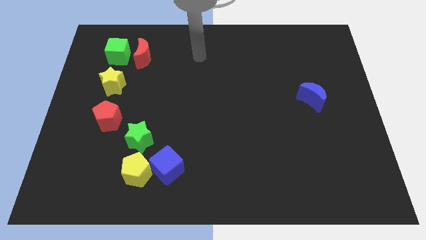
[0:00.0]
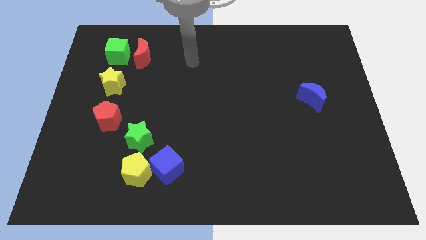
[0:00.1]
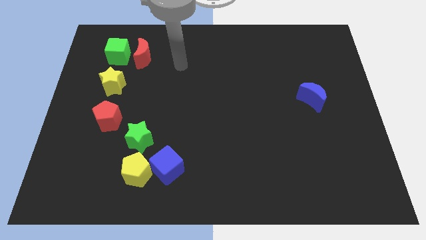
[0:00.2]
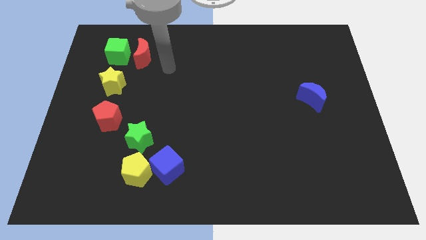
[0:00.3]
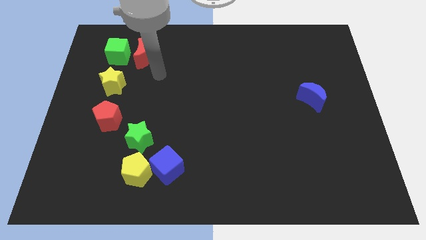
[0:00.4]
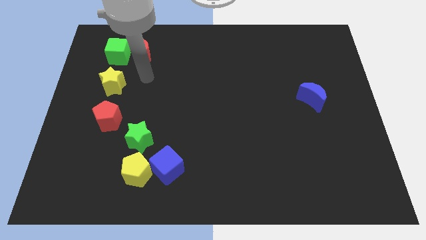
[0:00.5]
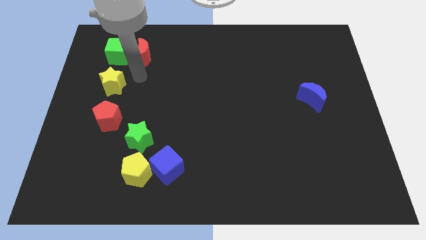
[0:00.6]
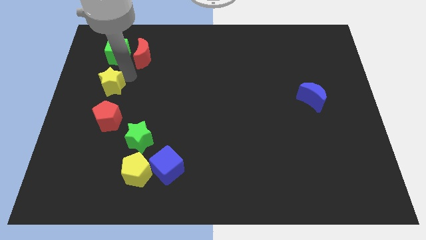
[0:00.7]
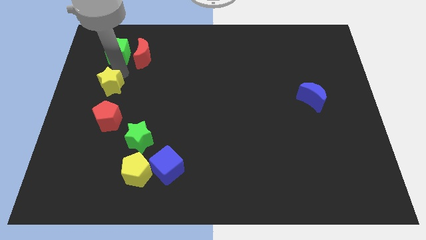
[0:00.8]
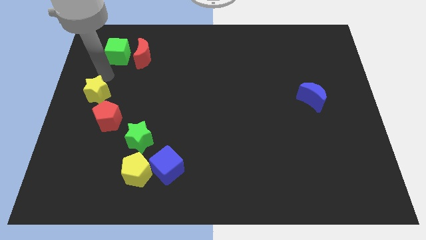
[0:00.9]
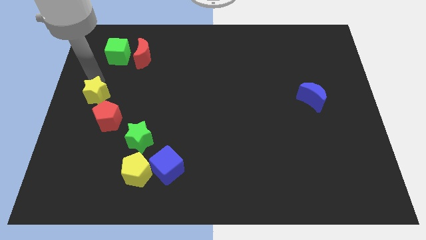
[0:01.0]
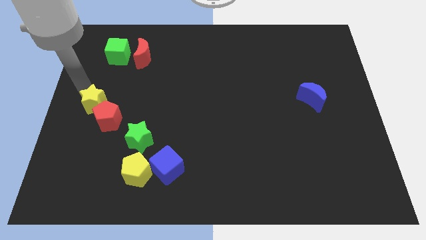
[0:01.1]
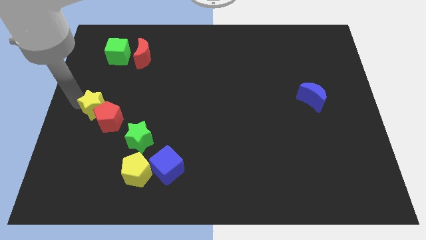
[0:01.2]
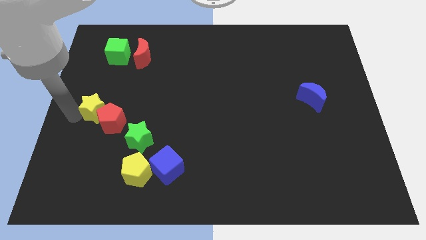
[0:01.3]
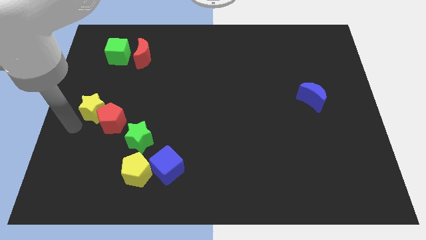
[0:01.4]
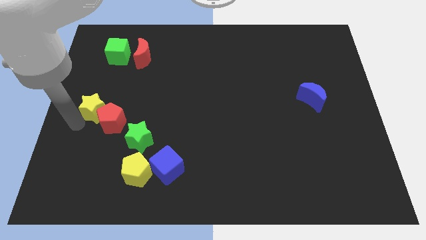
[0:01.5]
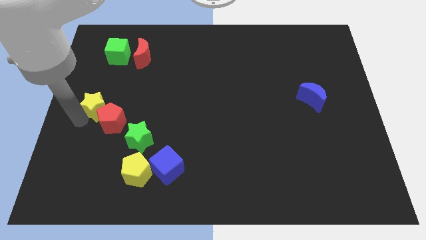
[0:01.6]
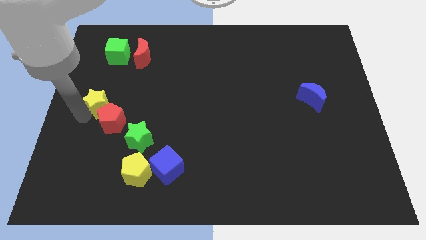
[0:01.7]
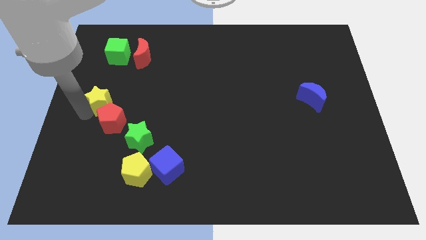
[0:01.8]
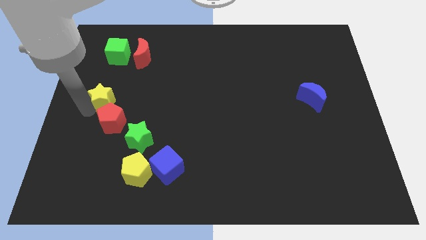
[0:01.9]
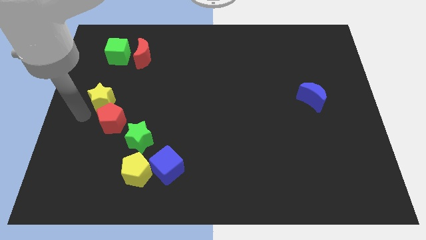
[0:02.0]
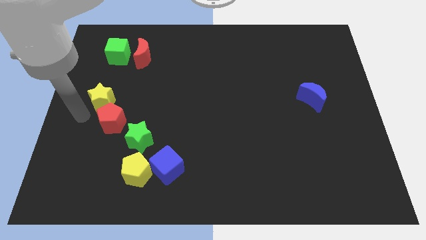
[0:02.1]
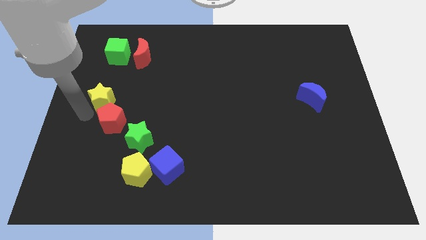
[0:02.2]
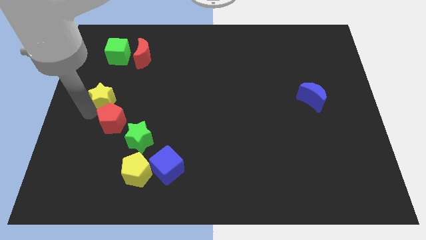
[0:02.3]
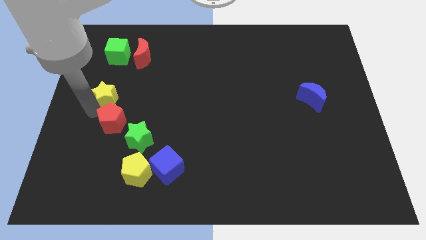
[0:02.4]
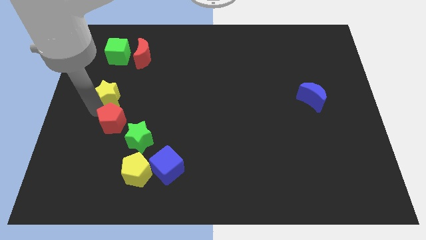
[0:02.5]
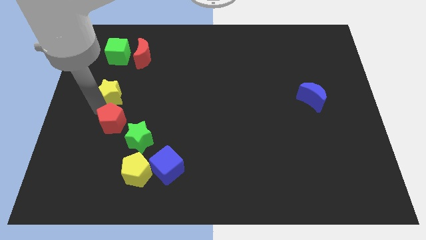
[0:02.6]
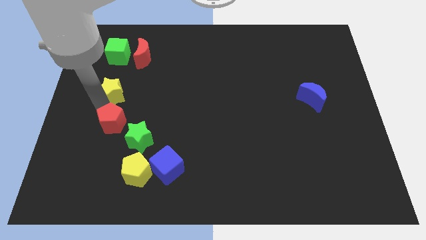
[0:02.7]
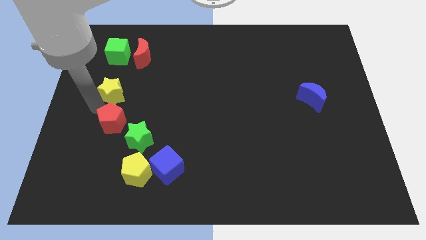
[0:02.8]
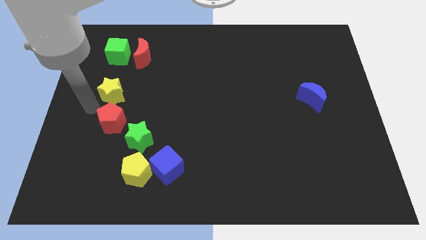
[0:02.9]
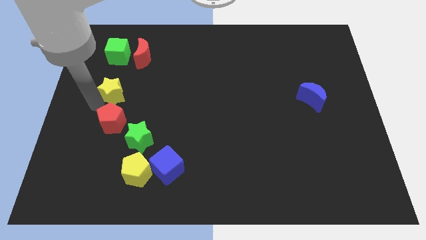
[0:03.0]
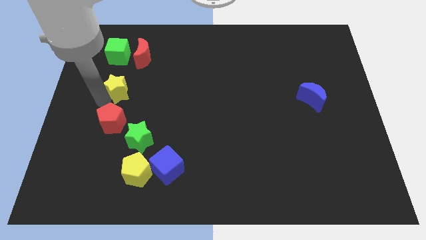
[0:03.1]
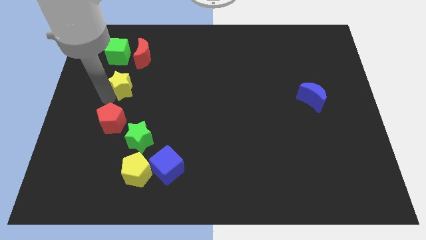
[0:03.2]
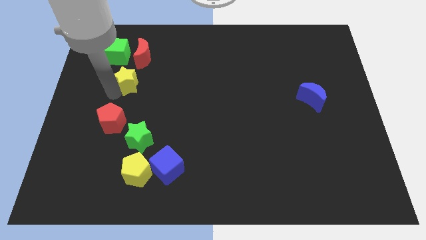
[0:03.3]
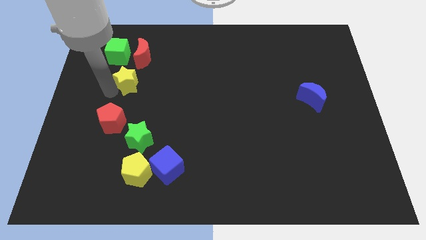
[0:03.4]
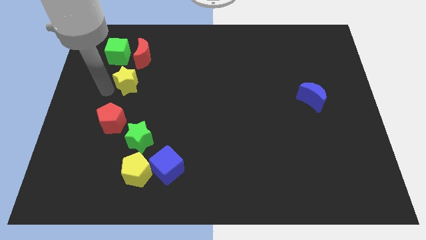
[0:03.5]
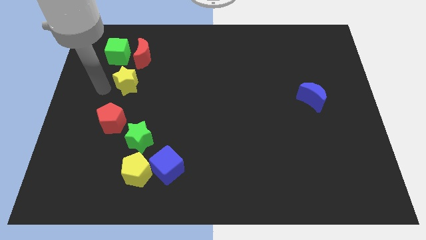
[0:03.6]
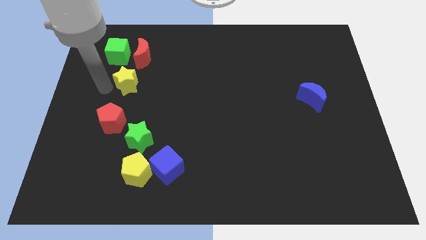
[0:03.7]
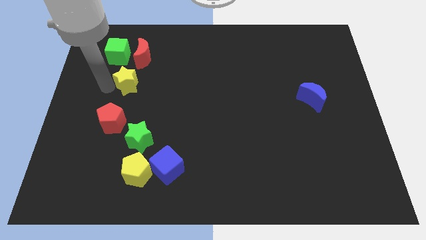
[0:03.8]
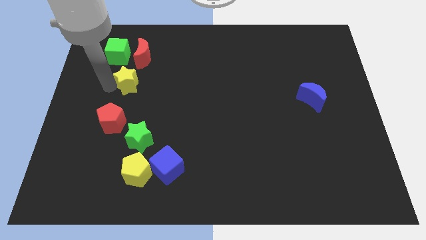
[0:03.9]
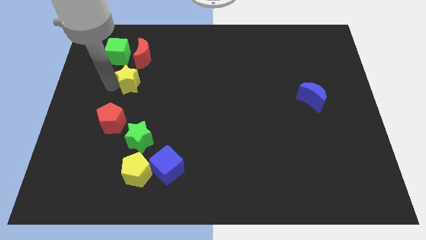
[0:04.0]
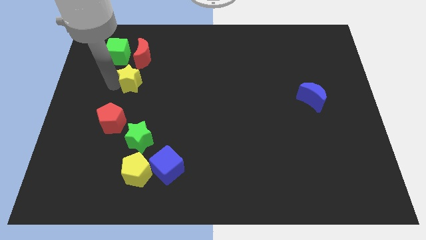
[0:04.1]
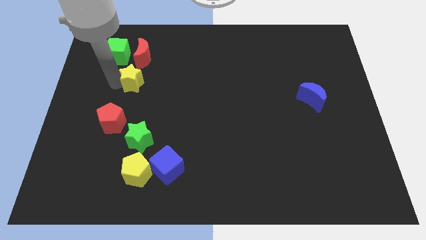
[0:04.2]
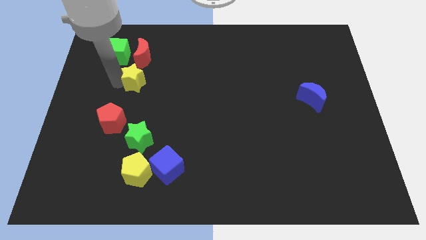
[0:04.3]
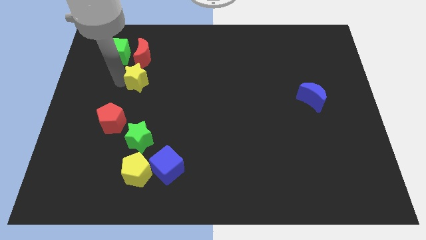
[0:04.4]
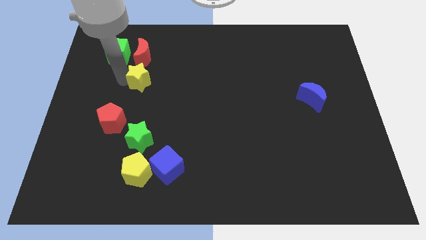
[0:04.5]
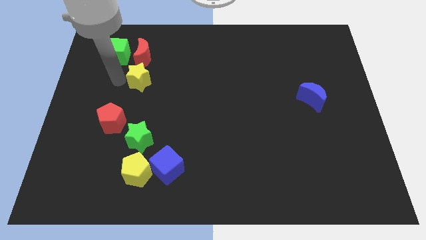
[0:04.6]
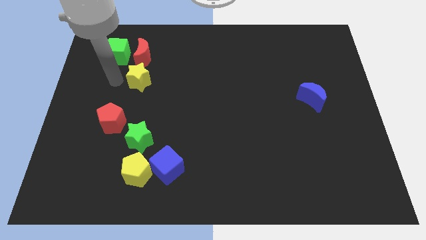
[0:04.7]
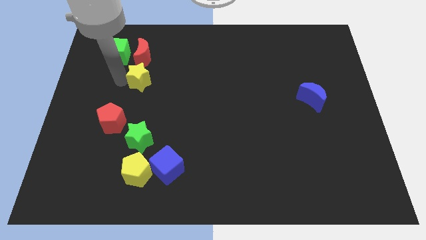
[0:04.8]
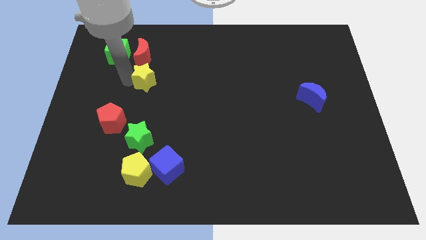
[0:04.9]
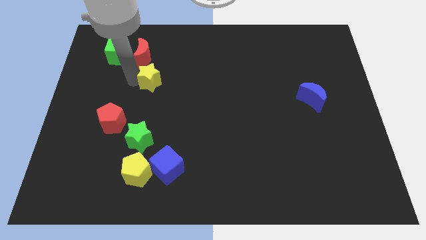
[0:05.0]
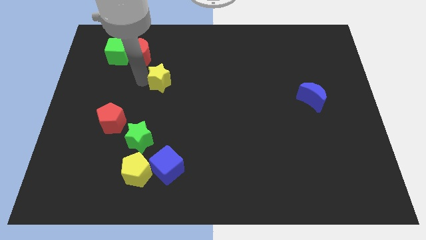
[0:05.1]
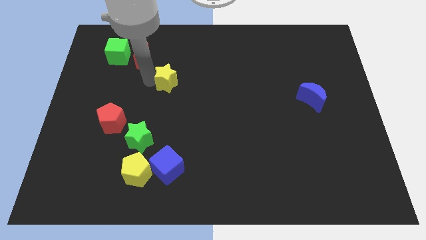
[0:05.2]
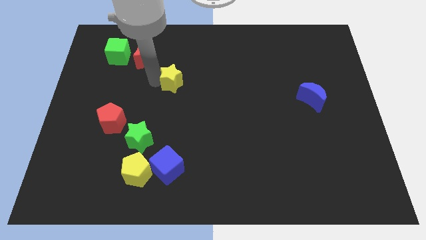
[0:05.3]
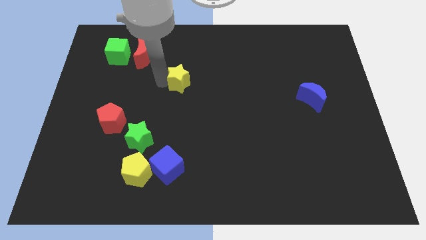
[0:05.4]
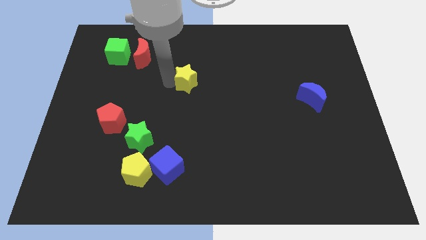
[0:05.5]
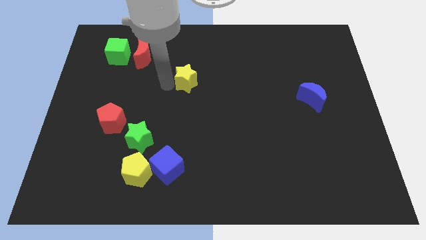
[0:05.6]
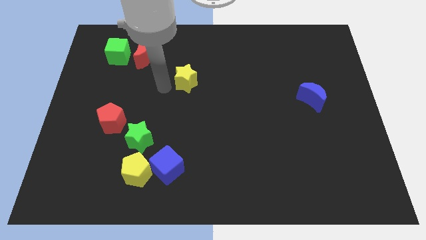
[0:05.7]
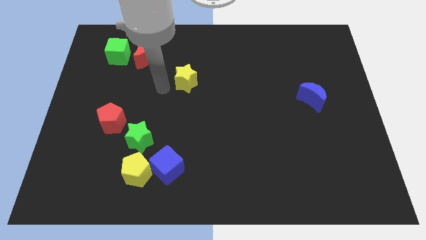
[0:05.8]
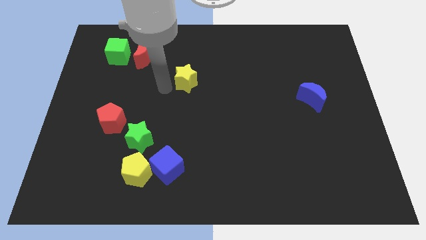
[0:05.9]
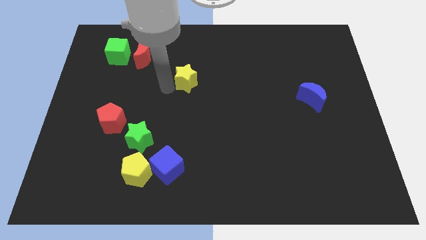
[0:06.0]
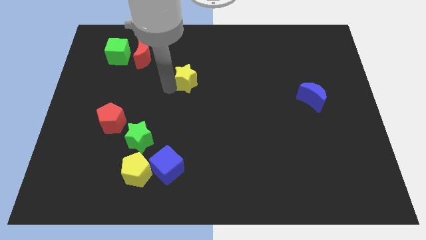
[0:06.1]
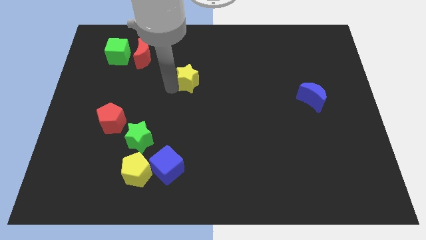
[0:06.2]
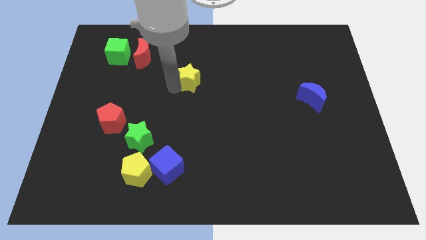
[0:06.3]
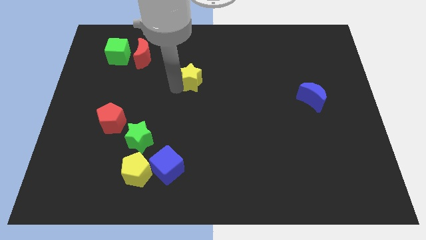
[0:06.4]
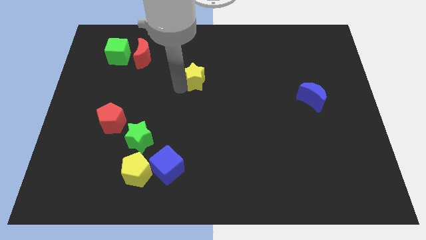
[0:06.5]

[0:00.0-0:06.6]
slide the yellow star to the right

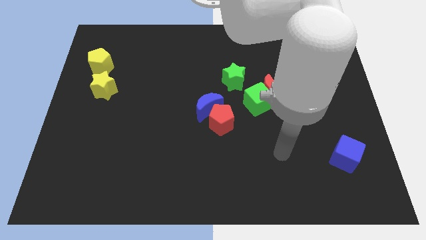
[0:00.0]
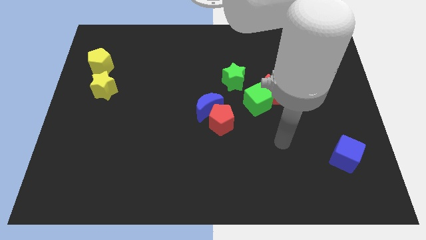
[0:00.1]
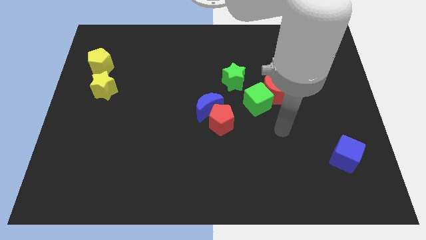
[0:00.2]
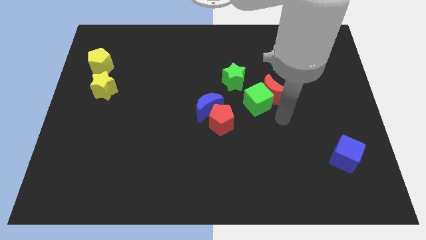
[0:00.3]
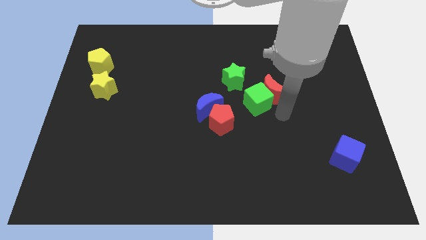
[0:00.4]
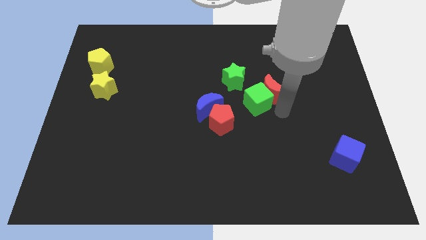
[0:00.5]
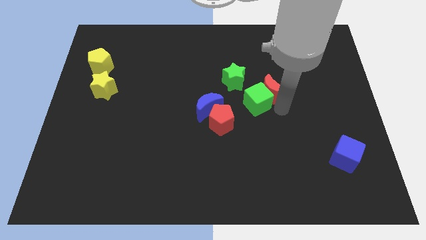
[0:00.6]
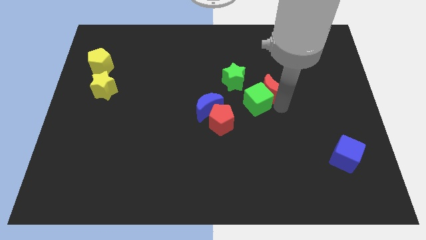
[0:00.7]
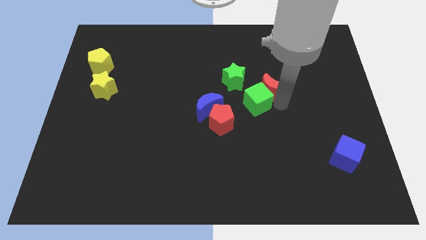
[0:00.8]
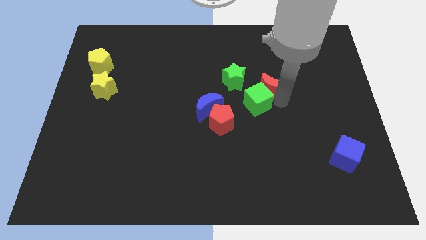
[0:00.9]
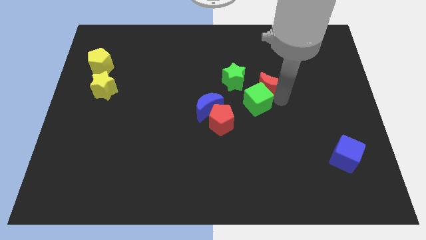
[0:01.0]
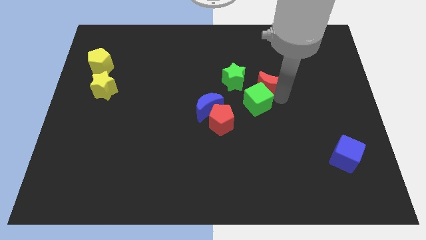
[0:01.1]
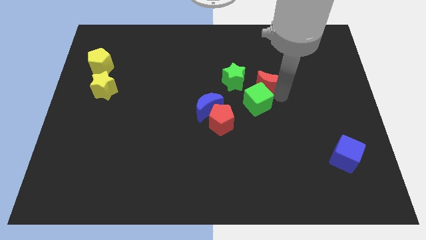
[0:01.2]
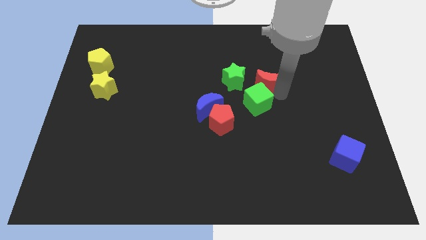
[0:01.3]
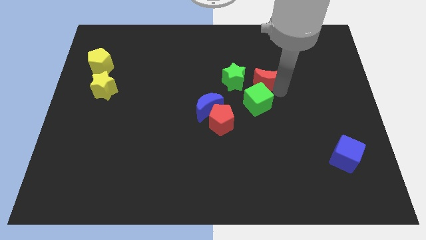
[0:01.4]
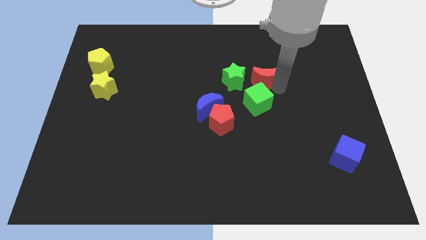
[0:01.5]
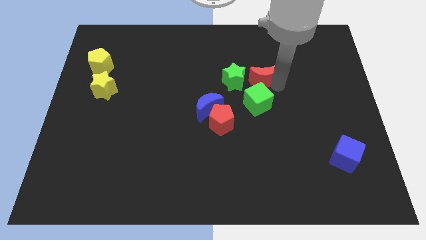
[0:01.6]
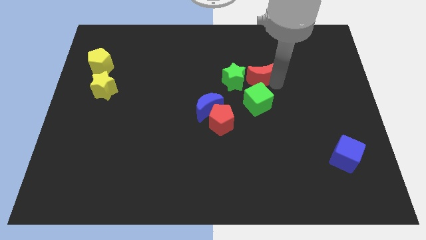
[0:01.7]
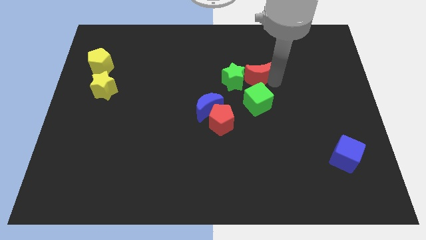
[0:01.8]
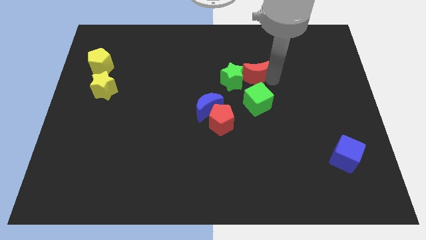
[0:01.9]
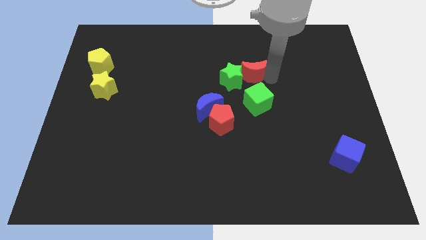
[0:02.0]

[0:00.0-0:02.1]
slide the red moon somewhat upwards and to the left diagonally
